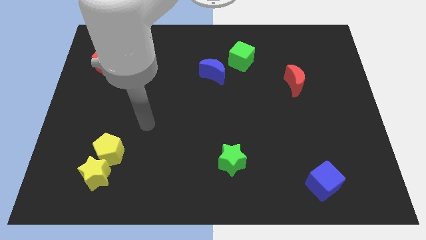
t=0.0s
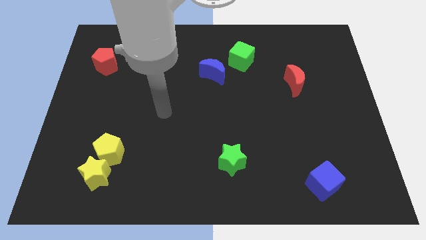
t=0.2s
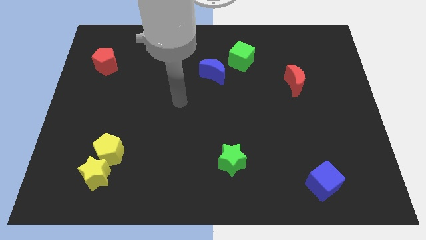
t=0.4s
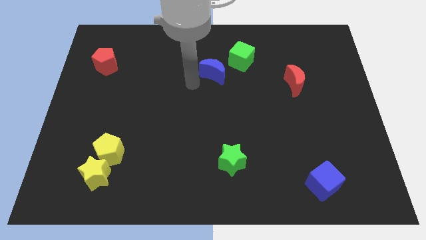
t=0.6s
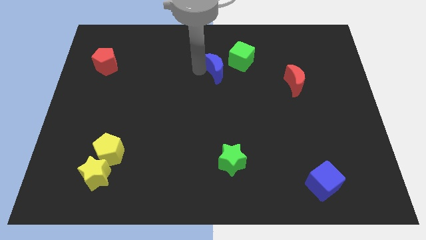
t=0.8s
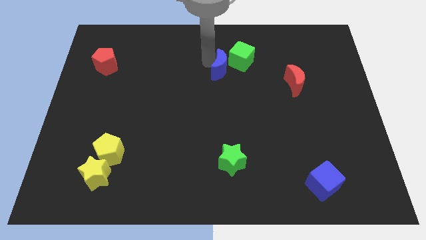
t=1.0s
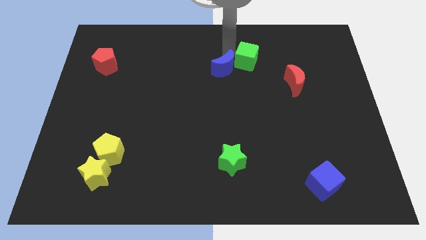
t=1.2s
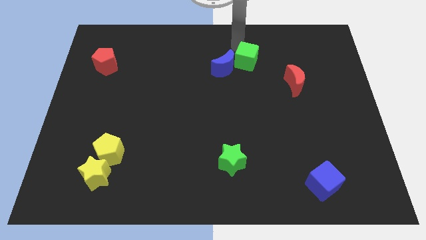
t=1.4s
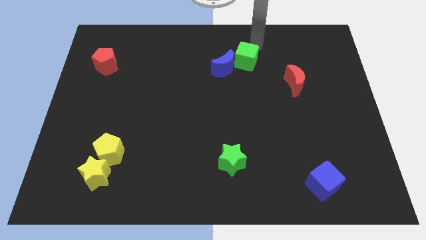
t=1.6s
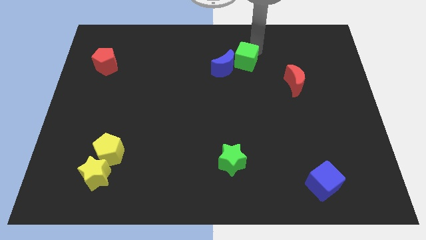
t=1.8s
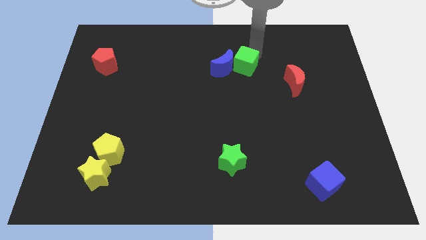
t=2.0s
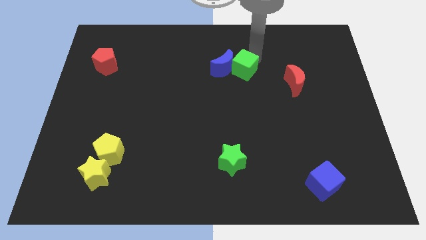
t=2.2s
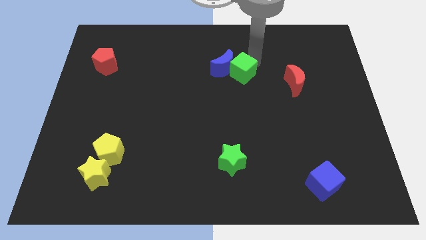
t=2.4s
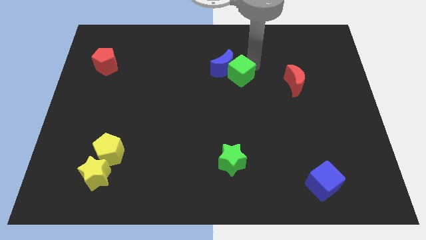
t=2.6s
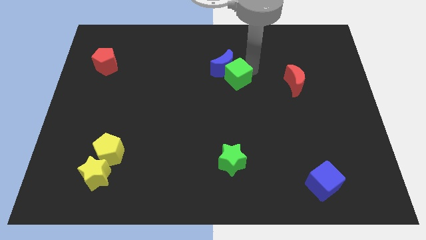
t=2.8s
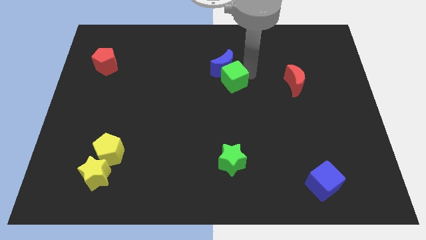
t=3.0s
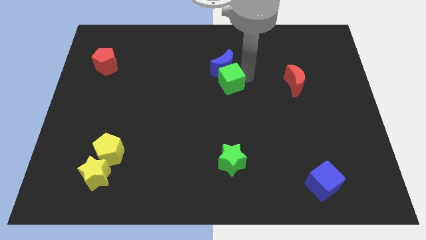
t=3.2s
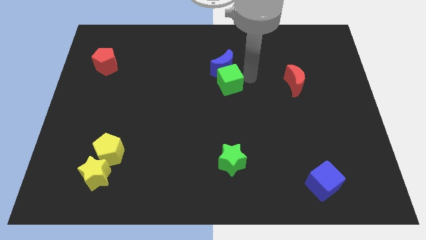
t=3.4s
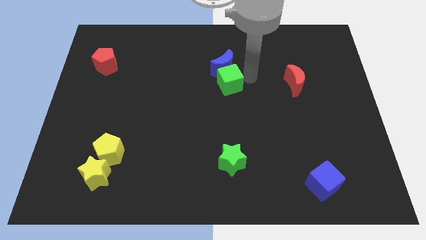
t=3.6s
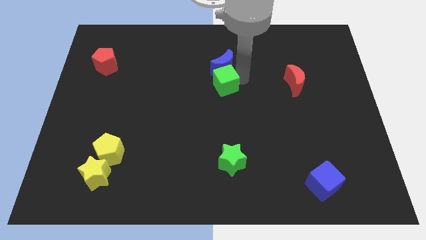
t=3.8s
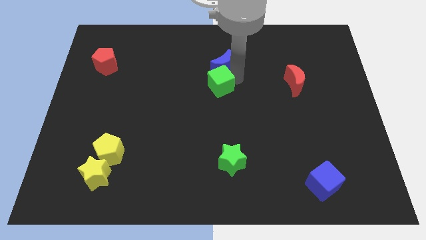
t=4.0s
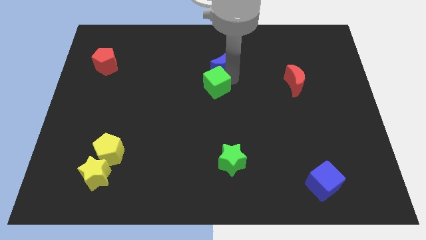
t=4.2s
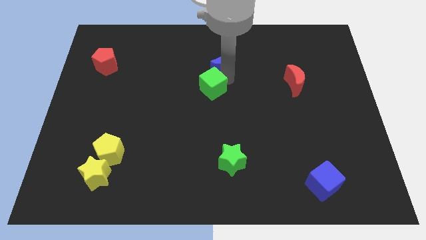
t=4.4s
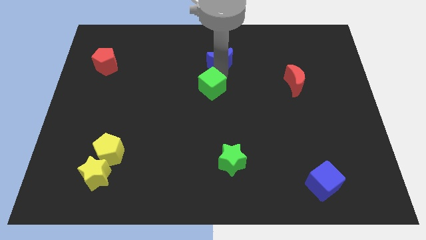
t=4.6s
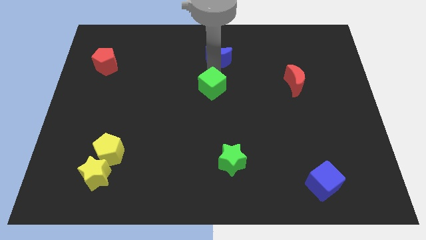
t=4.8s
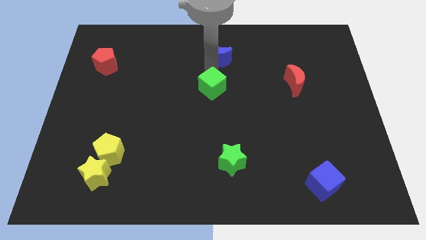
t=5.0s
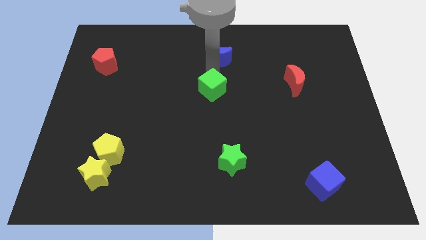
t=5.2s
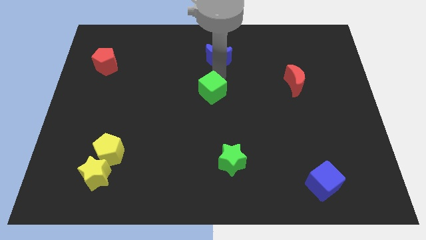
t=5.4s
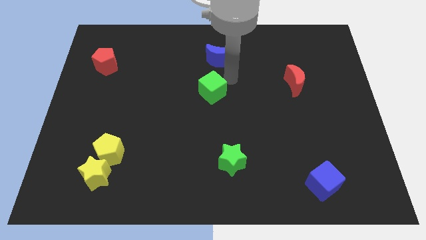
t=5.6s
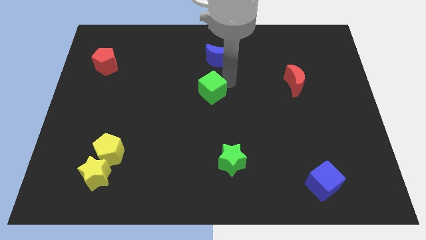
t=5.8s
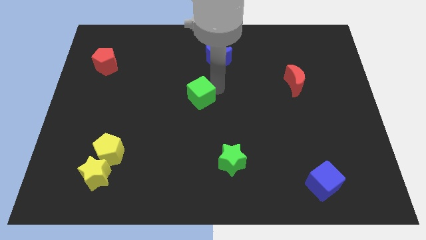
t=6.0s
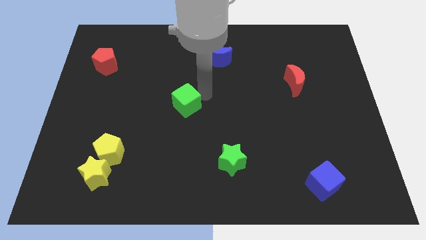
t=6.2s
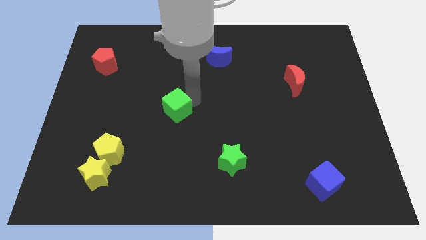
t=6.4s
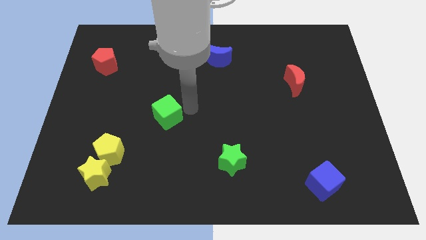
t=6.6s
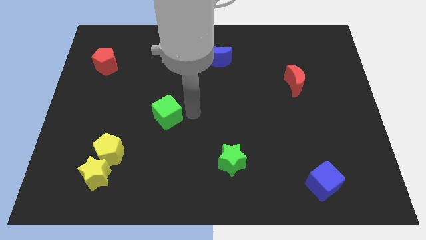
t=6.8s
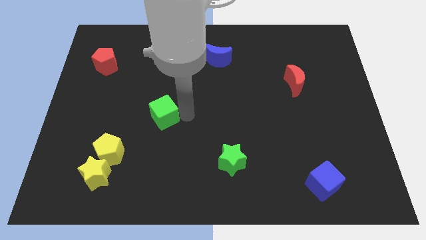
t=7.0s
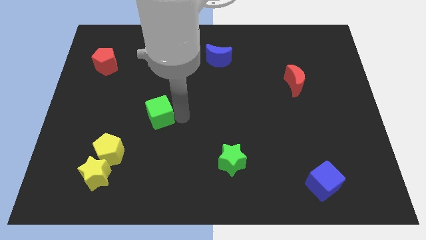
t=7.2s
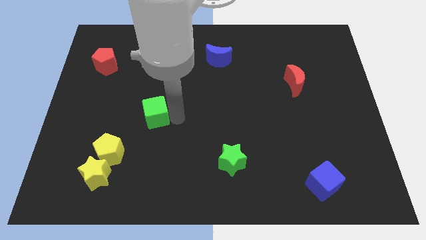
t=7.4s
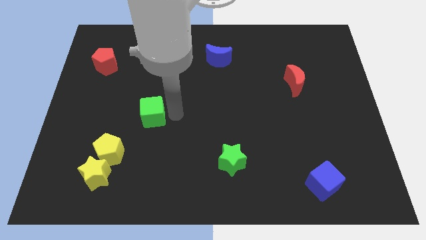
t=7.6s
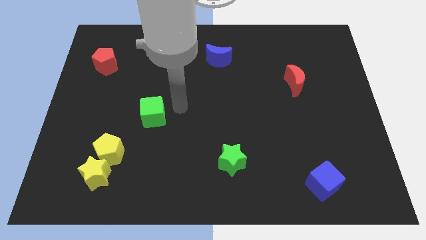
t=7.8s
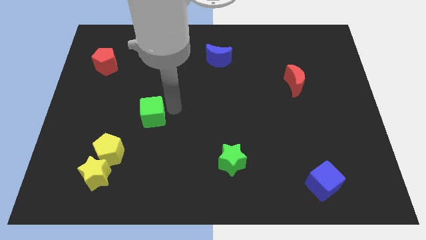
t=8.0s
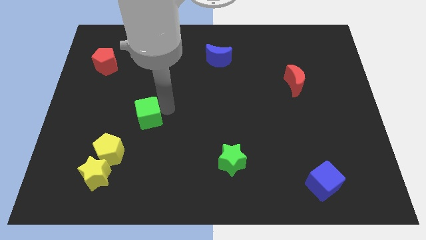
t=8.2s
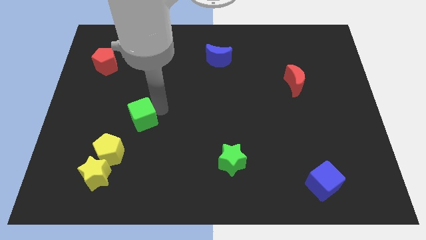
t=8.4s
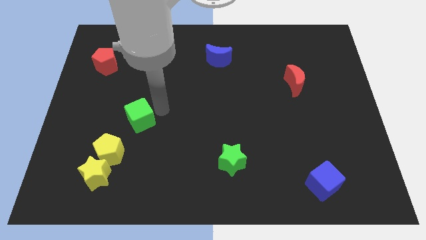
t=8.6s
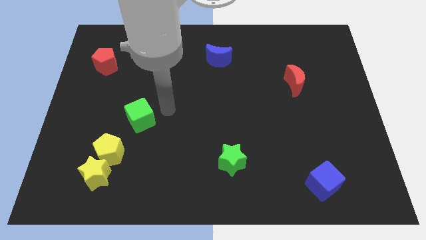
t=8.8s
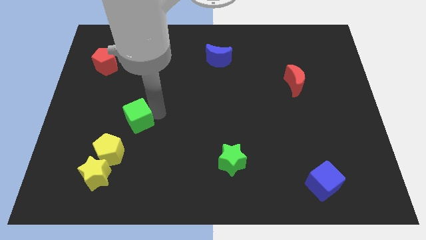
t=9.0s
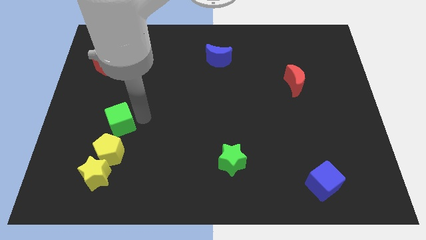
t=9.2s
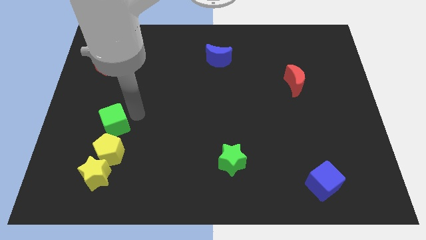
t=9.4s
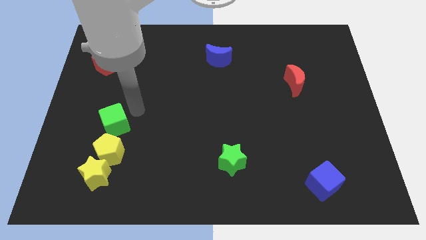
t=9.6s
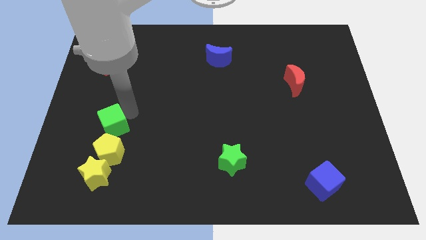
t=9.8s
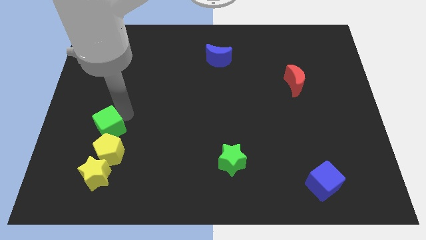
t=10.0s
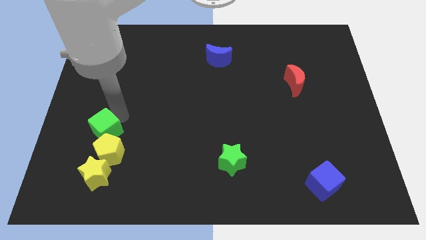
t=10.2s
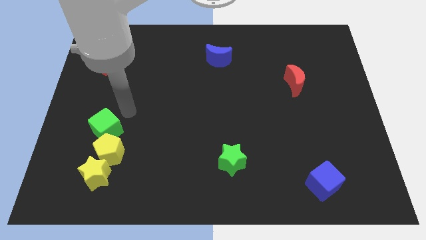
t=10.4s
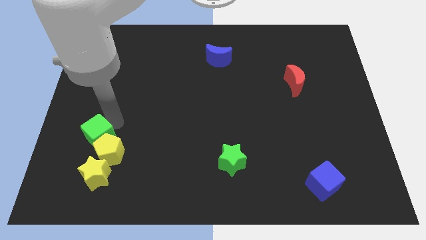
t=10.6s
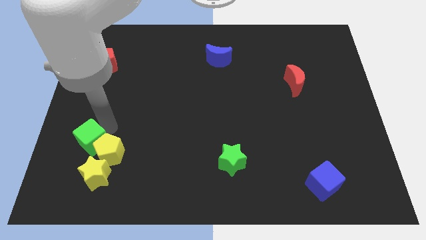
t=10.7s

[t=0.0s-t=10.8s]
move the green cube diagonally up and to the left of the yellow star

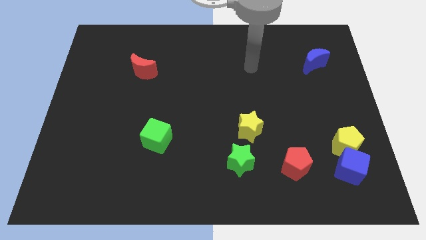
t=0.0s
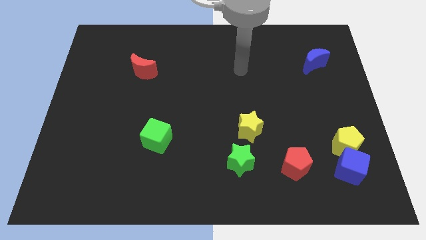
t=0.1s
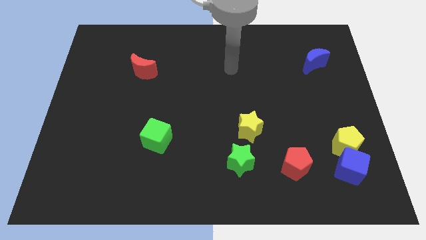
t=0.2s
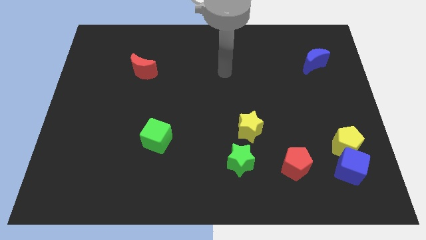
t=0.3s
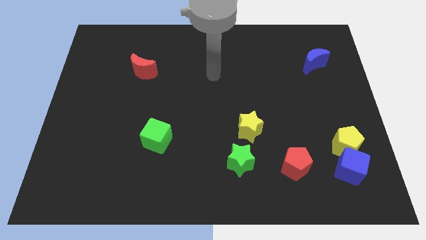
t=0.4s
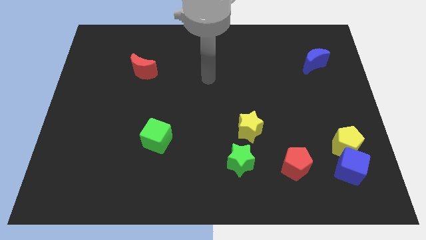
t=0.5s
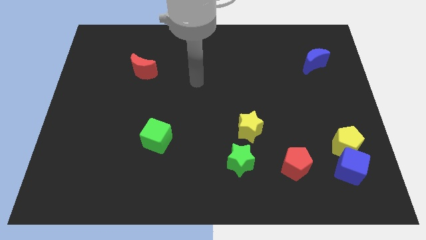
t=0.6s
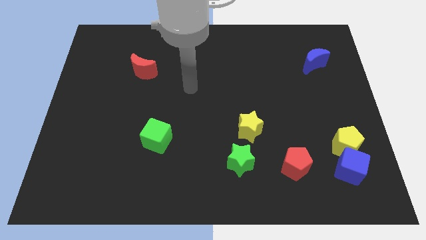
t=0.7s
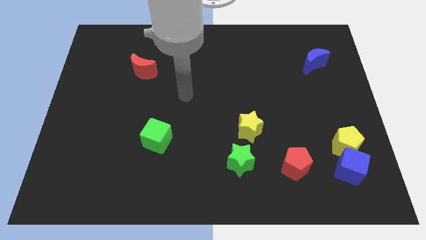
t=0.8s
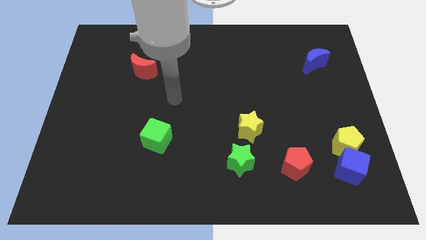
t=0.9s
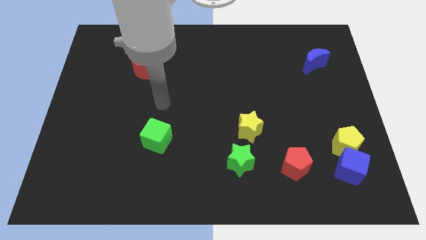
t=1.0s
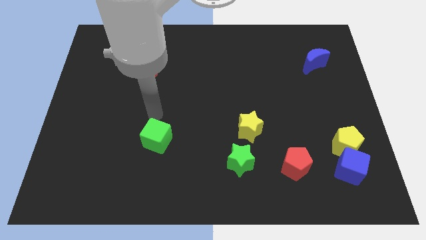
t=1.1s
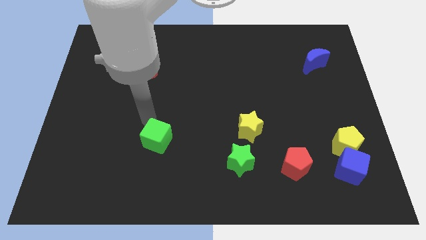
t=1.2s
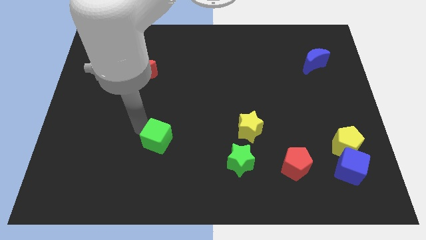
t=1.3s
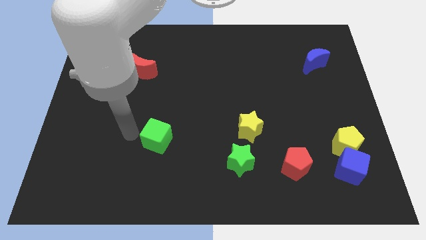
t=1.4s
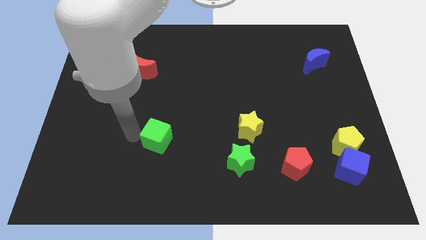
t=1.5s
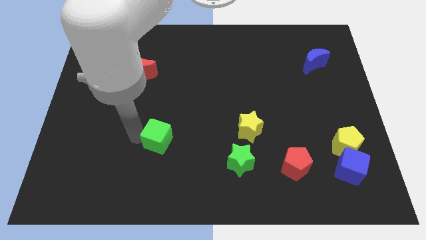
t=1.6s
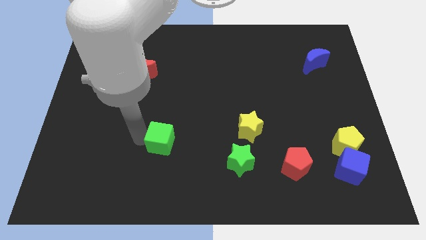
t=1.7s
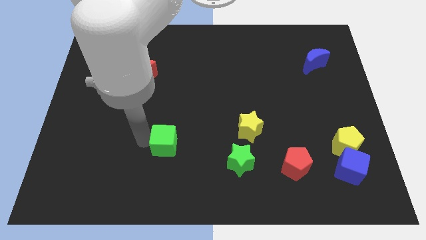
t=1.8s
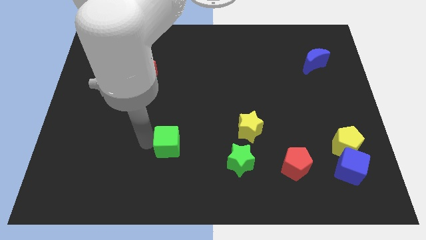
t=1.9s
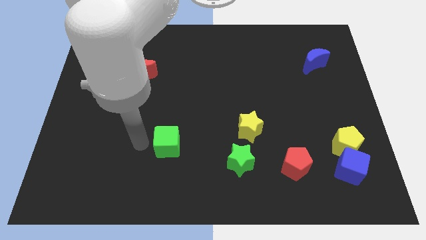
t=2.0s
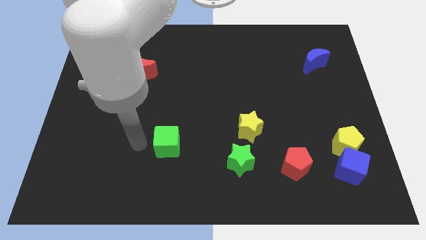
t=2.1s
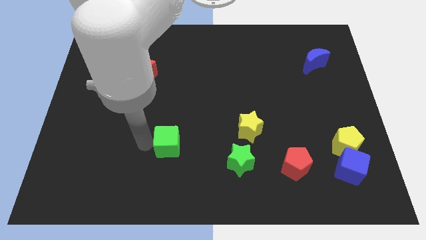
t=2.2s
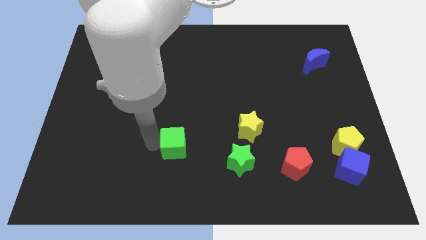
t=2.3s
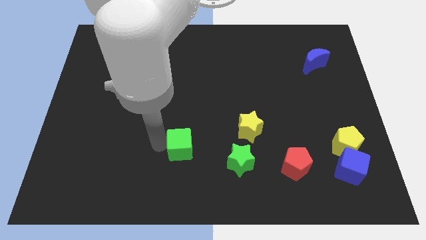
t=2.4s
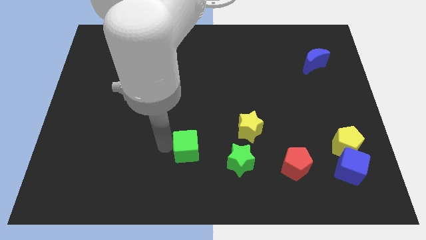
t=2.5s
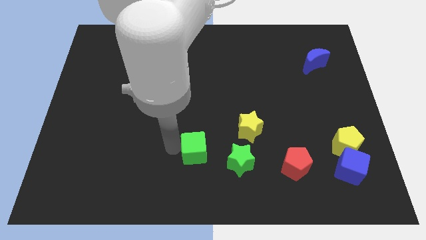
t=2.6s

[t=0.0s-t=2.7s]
put the green cube to the top left of the green star
